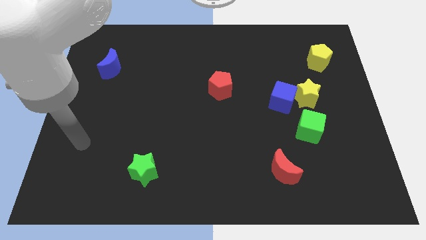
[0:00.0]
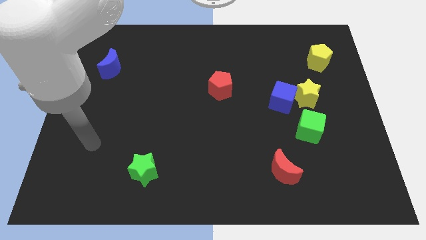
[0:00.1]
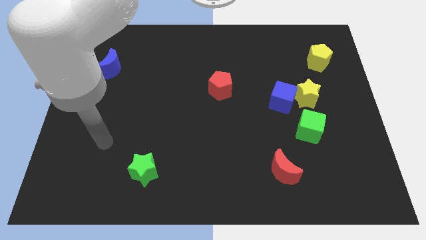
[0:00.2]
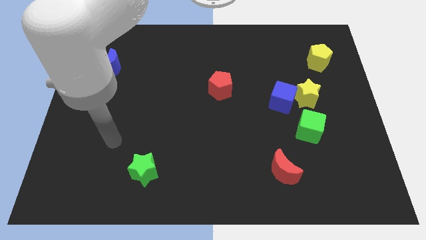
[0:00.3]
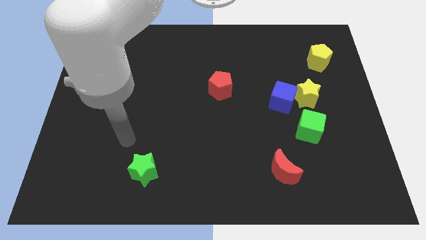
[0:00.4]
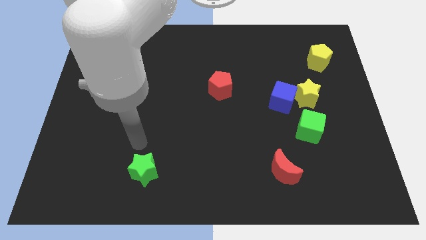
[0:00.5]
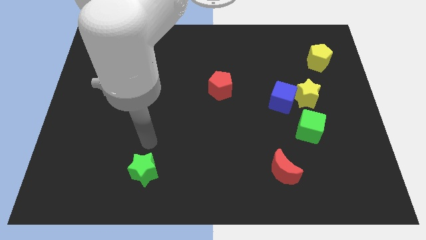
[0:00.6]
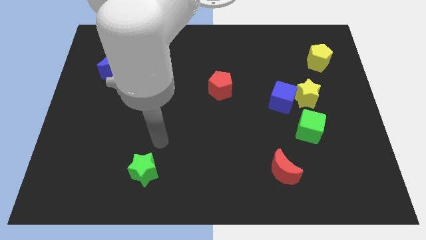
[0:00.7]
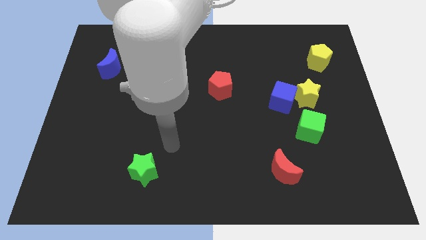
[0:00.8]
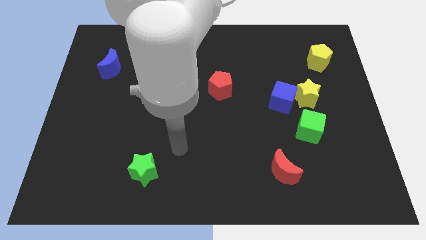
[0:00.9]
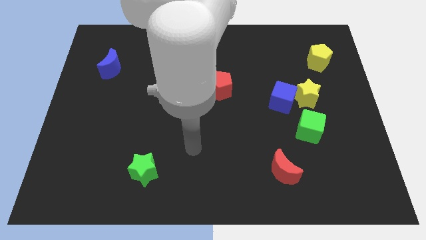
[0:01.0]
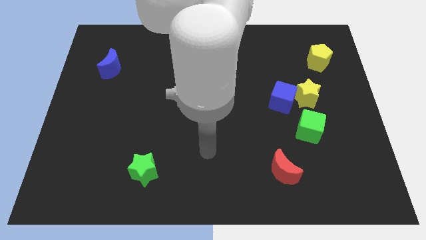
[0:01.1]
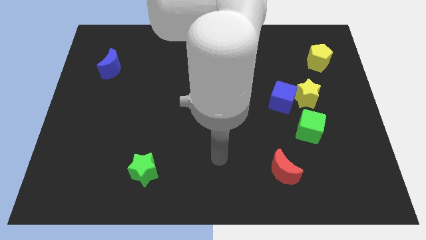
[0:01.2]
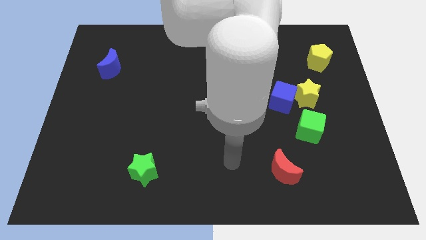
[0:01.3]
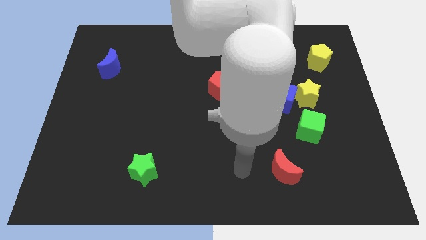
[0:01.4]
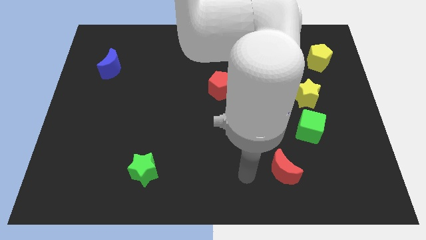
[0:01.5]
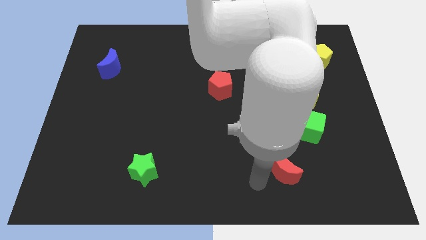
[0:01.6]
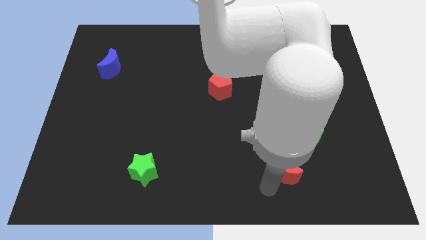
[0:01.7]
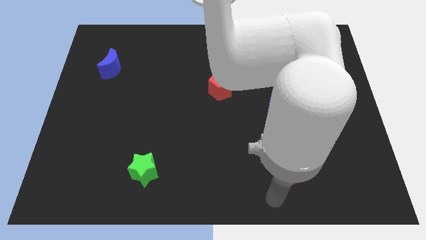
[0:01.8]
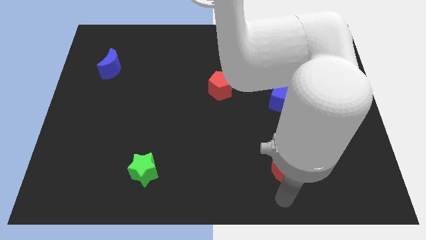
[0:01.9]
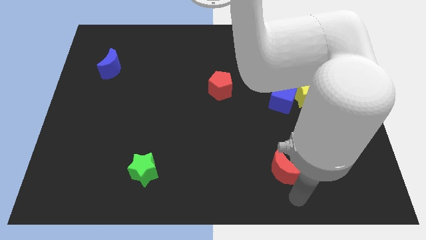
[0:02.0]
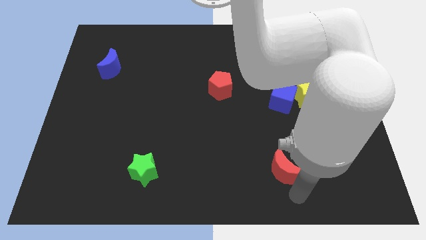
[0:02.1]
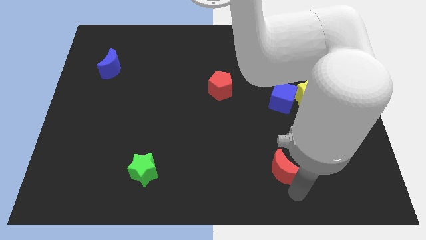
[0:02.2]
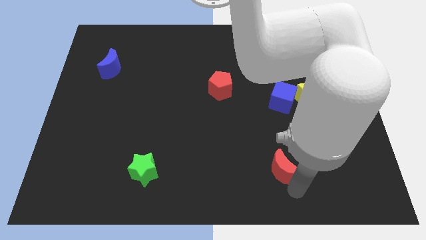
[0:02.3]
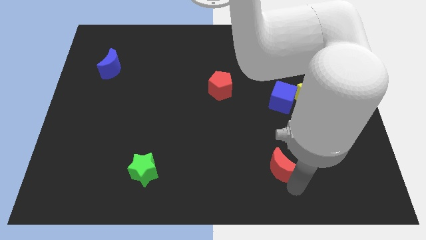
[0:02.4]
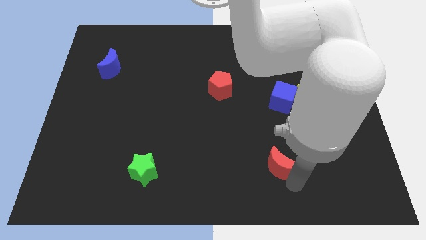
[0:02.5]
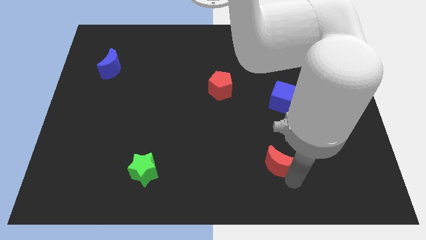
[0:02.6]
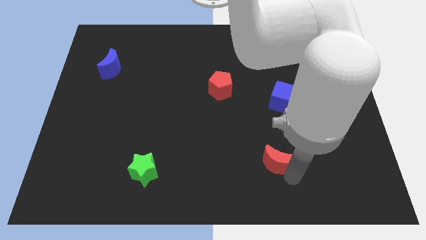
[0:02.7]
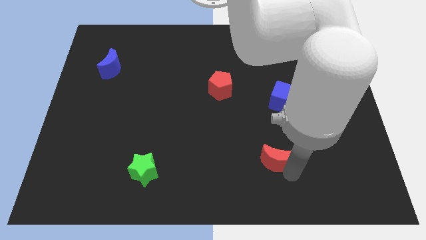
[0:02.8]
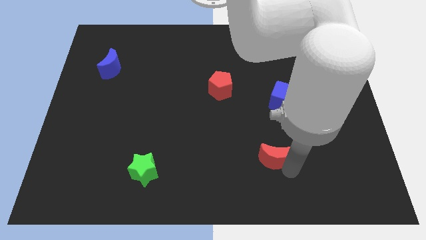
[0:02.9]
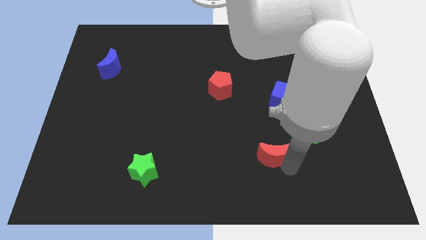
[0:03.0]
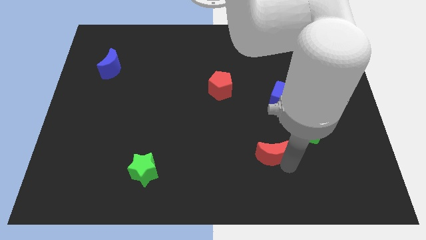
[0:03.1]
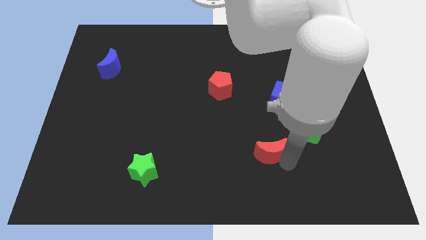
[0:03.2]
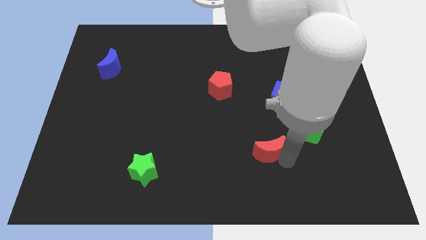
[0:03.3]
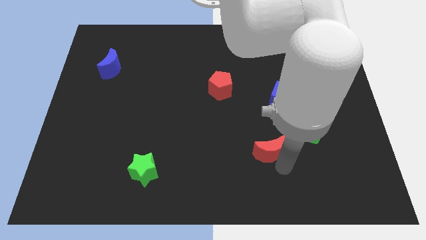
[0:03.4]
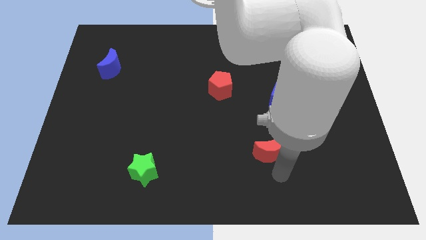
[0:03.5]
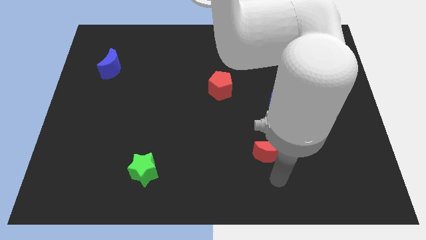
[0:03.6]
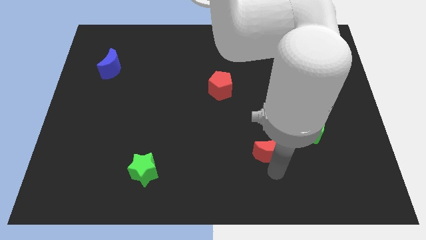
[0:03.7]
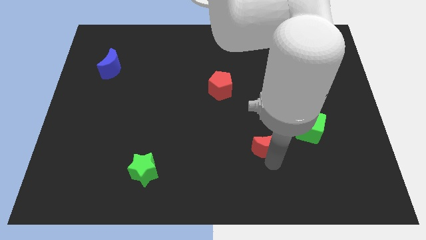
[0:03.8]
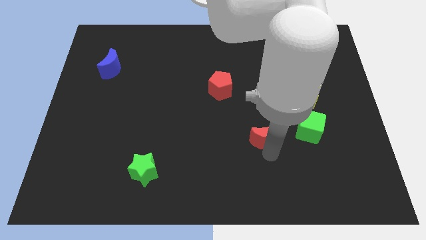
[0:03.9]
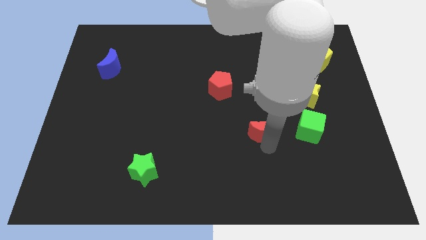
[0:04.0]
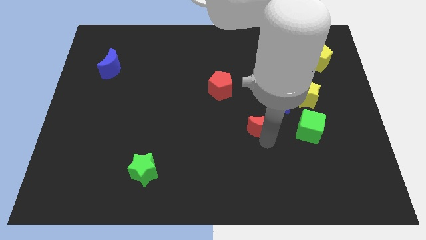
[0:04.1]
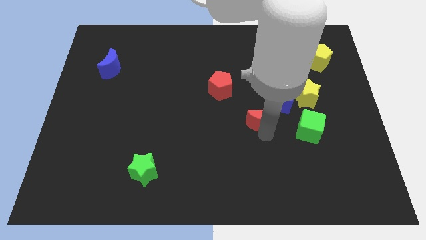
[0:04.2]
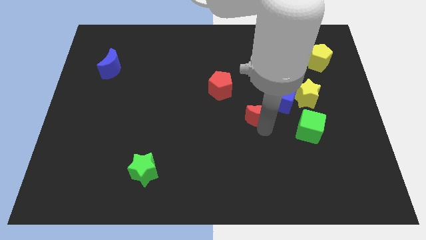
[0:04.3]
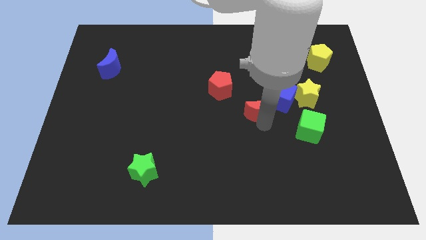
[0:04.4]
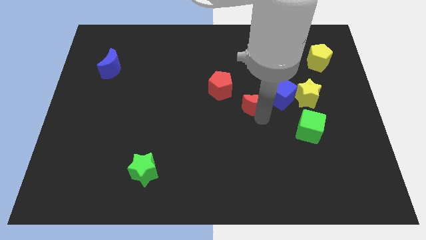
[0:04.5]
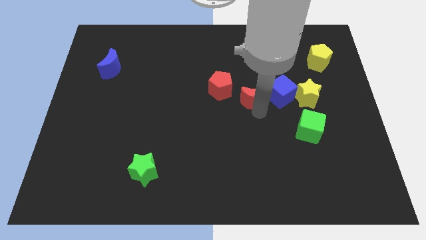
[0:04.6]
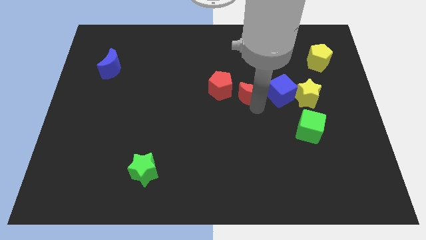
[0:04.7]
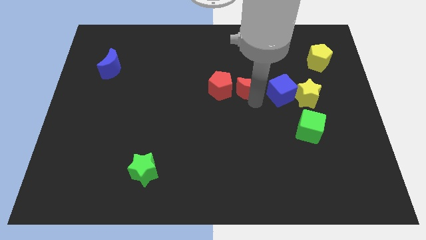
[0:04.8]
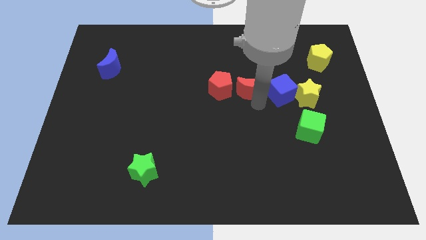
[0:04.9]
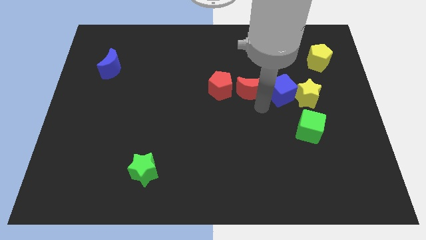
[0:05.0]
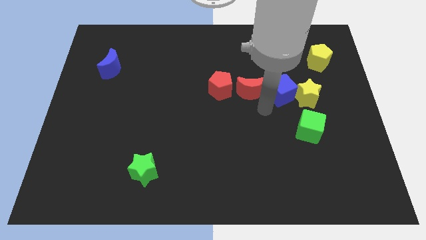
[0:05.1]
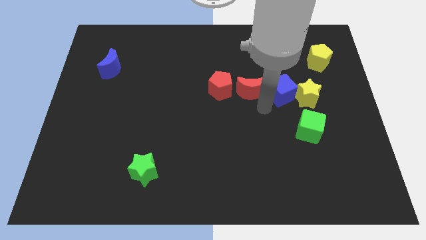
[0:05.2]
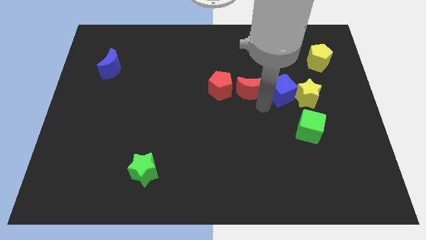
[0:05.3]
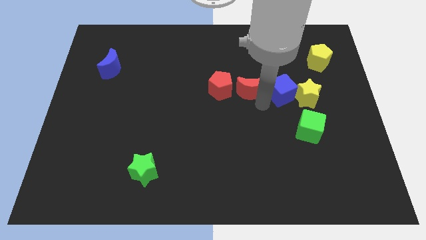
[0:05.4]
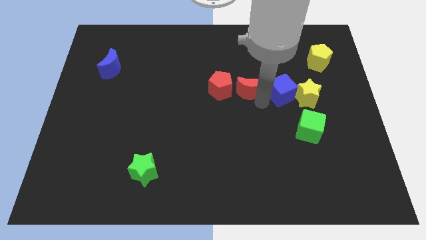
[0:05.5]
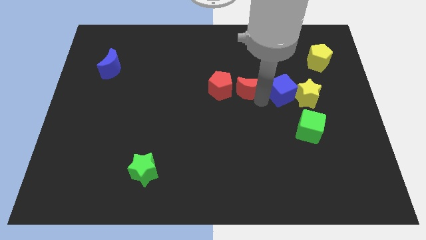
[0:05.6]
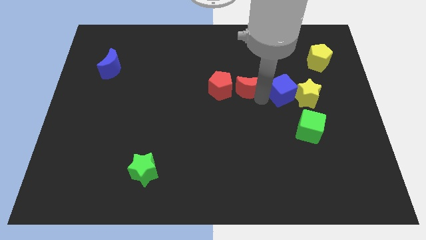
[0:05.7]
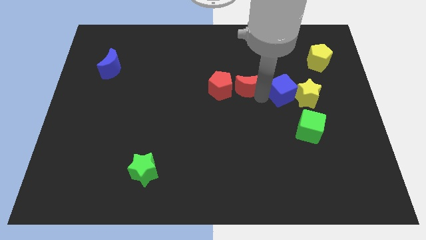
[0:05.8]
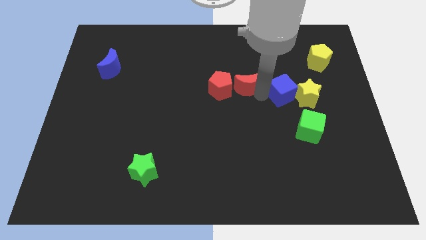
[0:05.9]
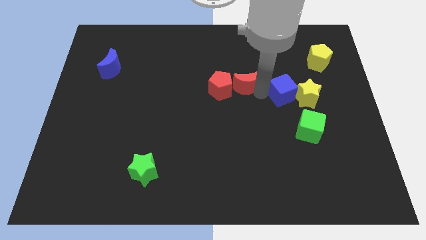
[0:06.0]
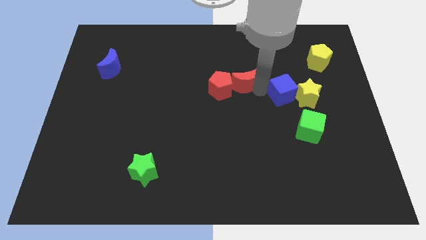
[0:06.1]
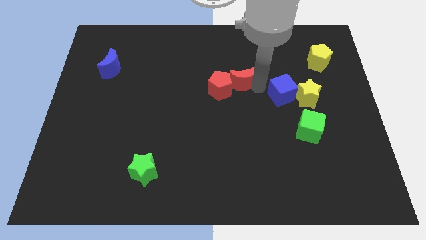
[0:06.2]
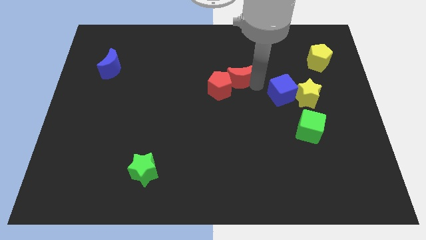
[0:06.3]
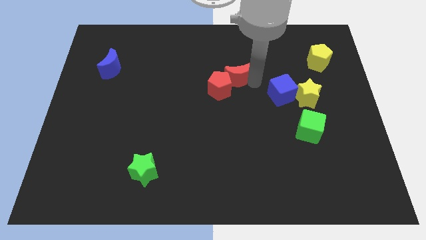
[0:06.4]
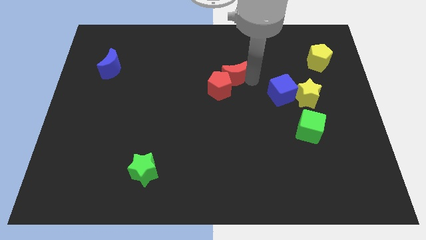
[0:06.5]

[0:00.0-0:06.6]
move the red moon to the top of the red pentagon
